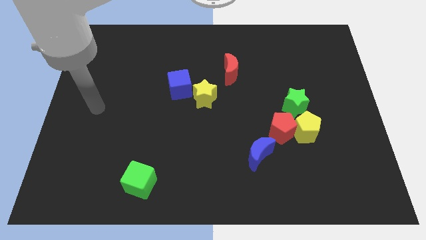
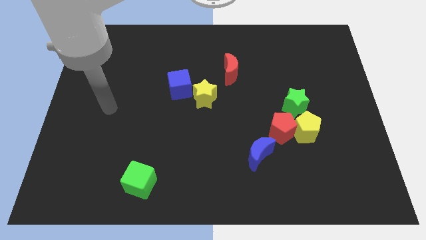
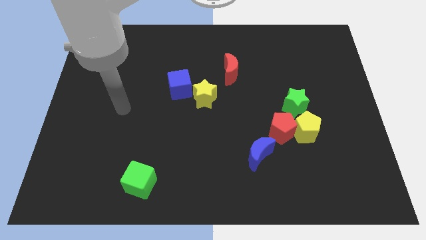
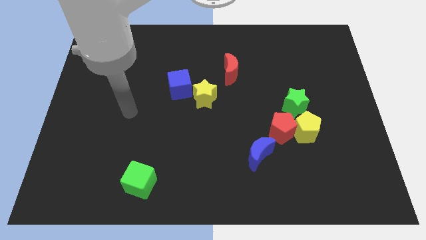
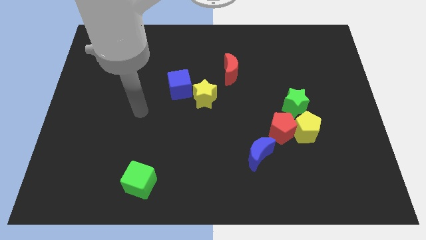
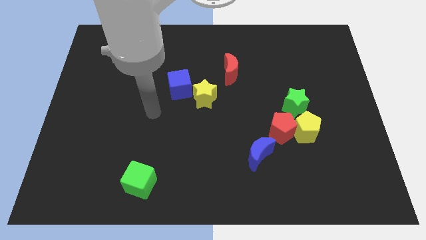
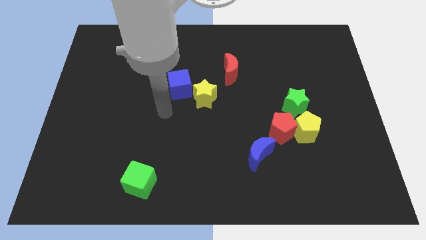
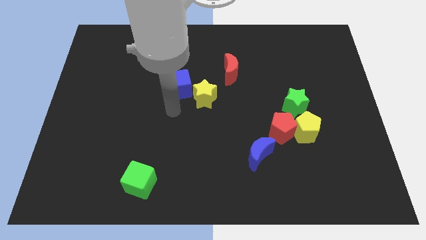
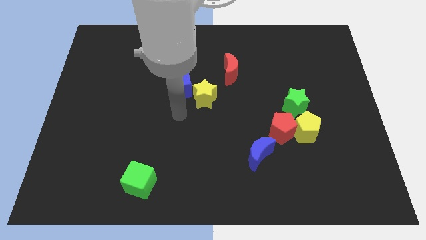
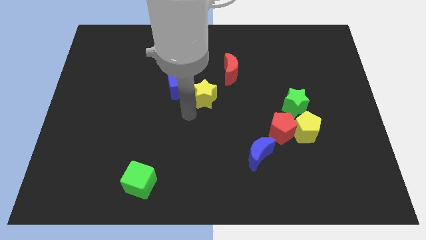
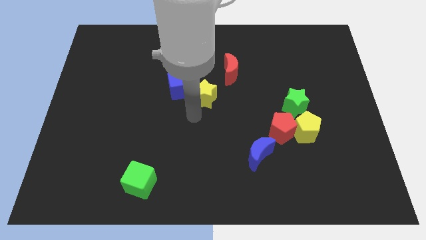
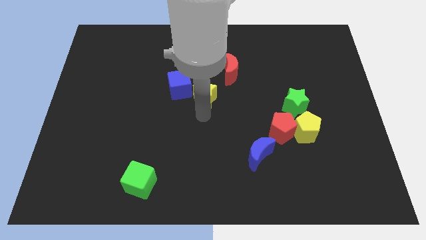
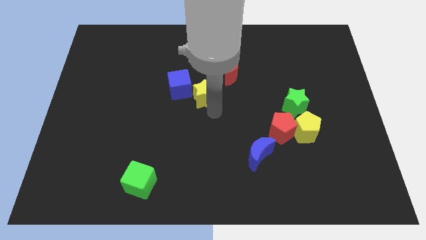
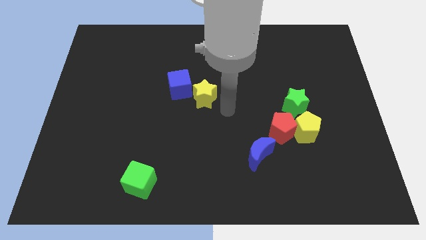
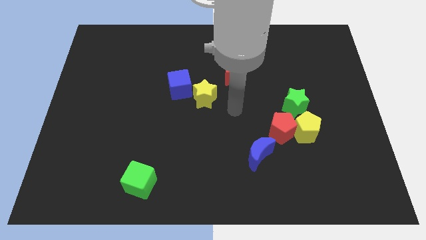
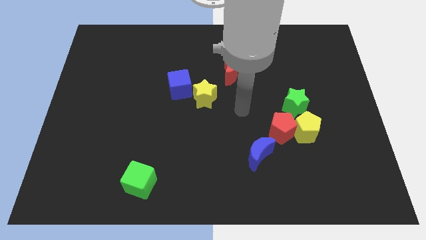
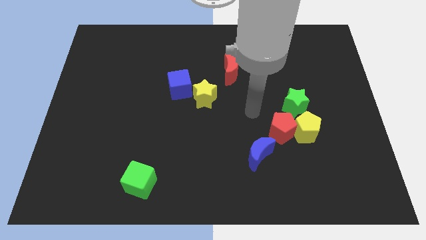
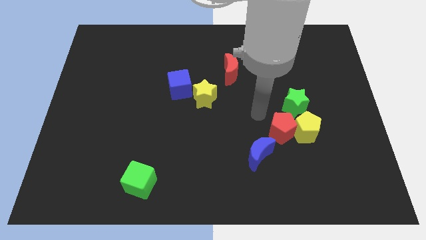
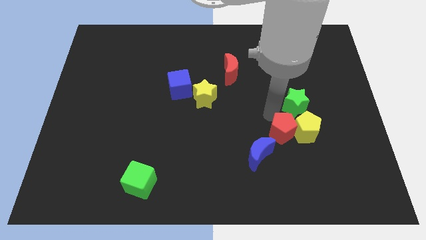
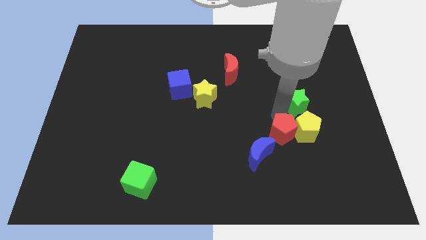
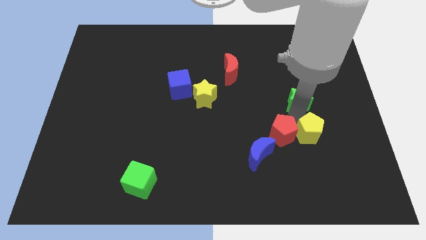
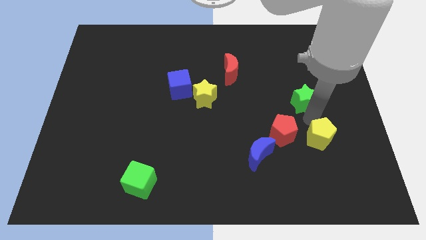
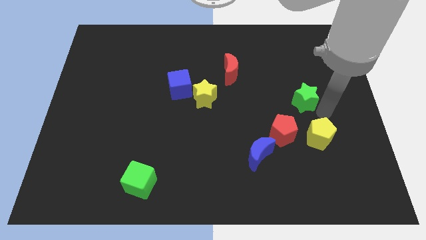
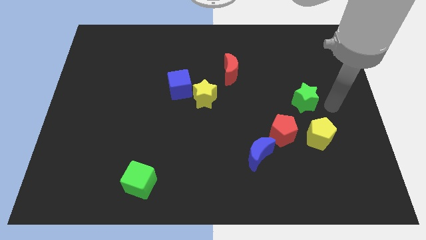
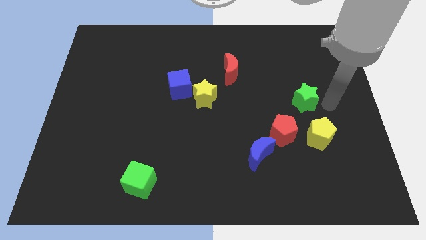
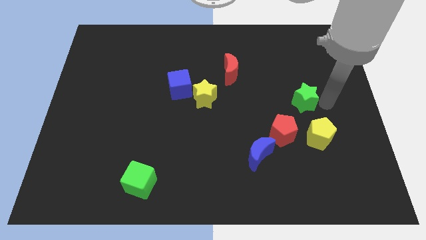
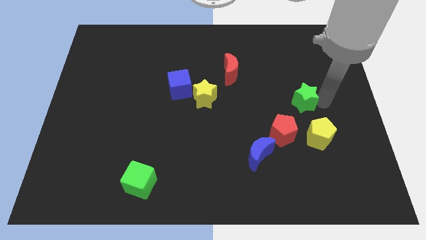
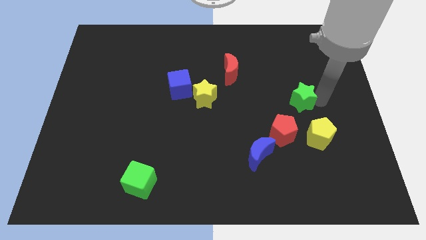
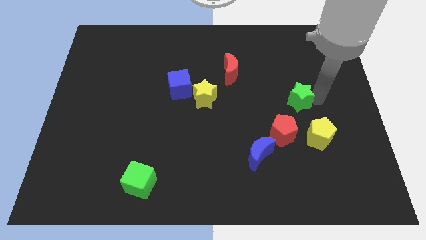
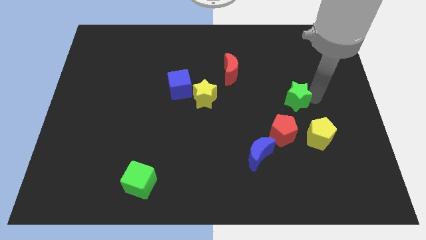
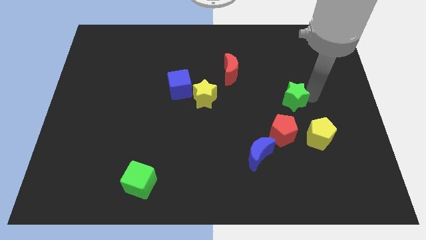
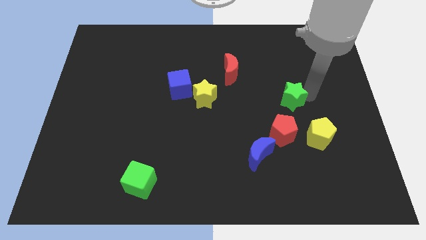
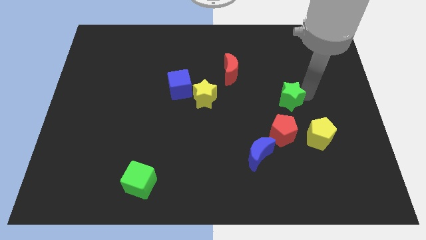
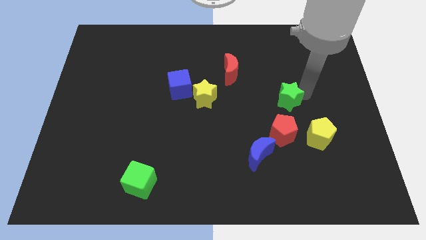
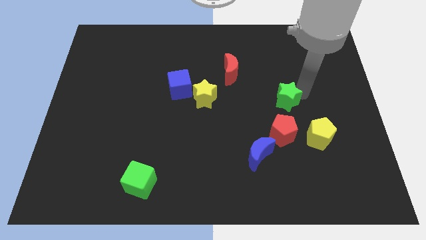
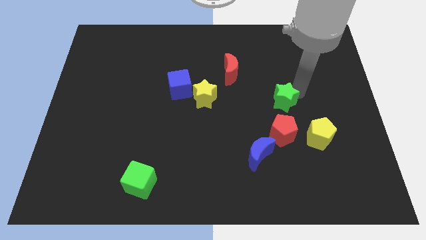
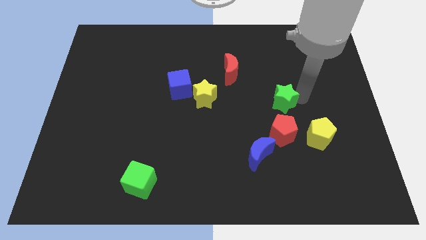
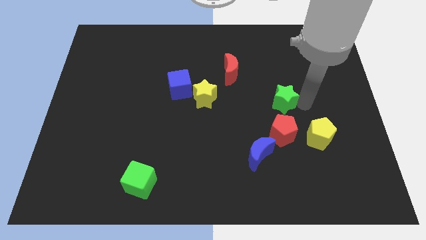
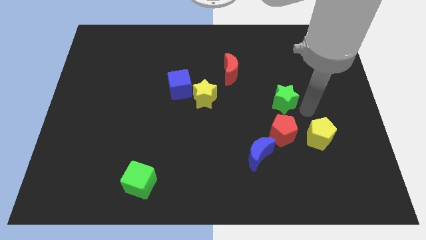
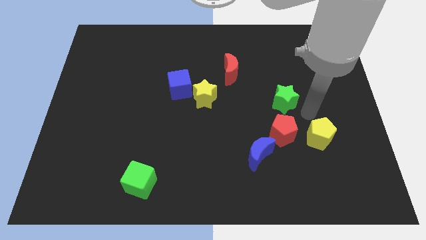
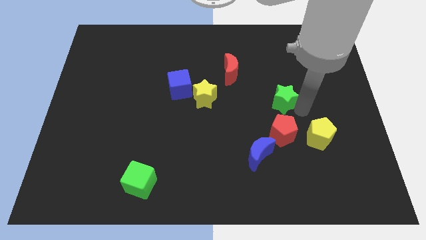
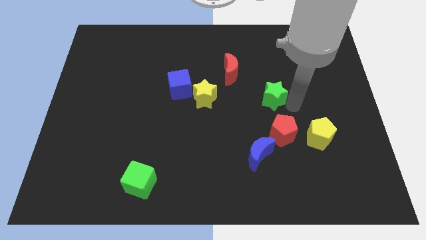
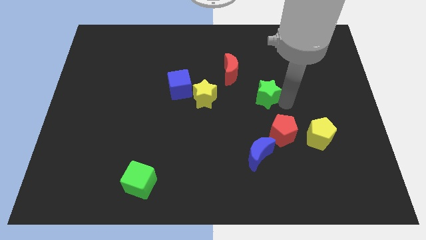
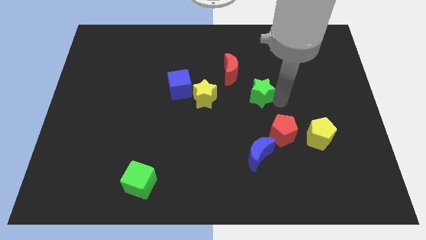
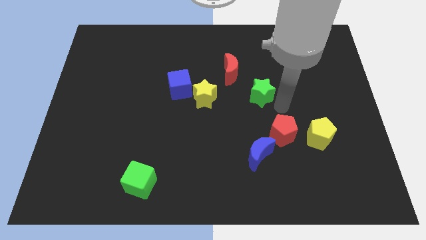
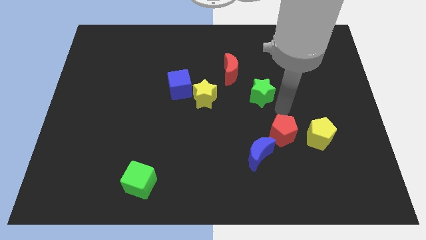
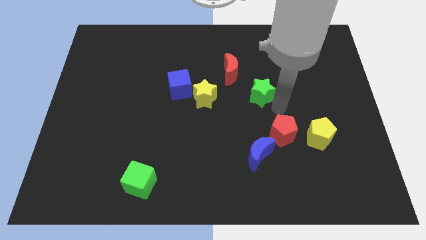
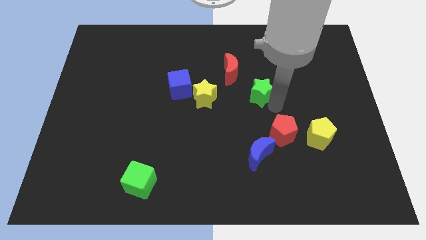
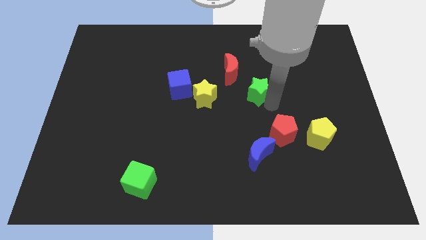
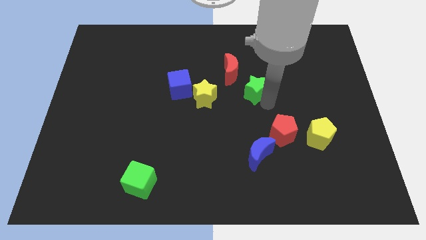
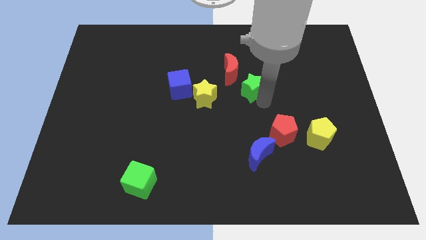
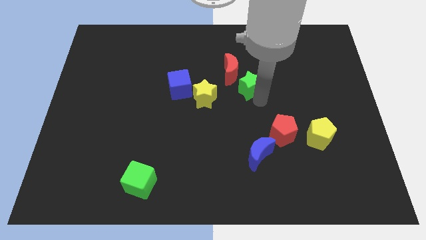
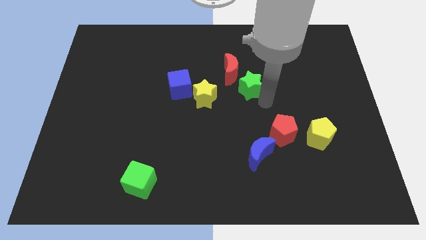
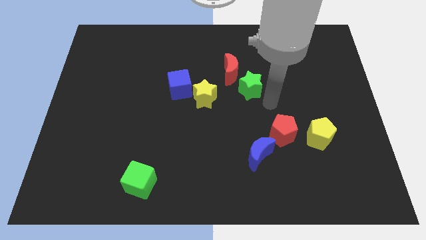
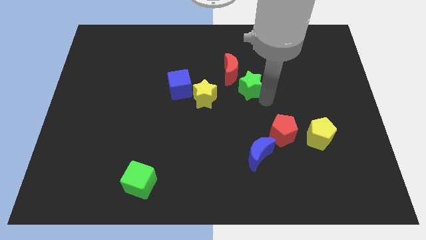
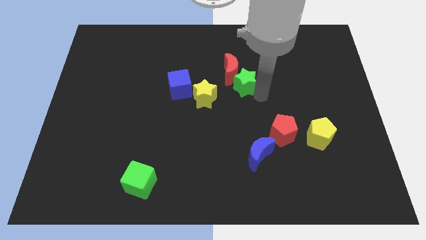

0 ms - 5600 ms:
slide the green star close to the red moon
